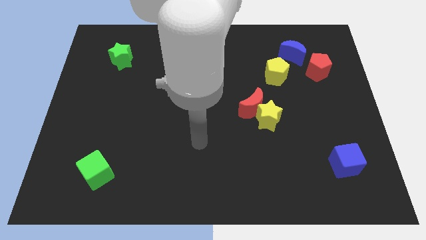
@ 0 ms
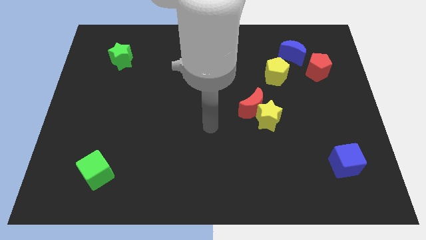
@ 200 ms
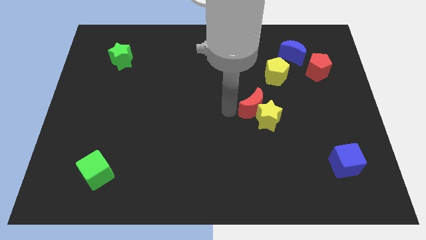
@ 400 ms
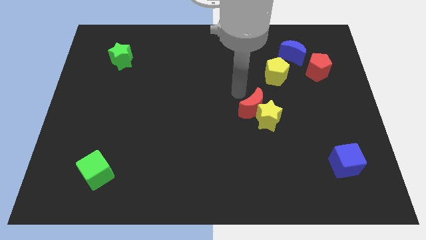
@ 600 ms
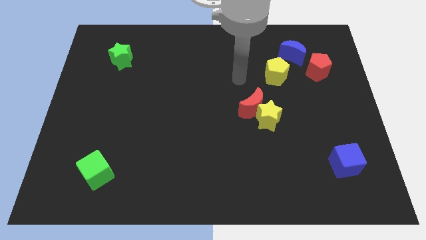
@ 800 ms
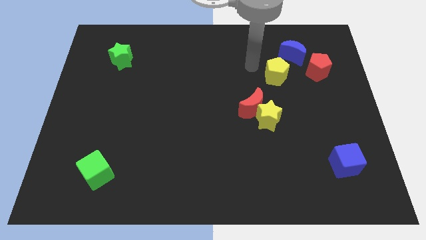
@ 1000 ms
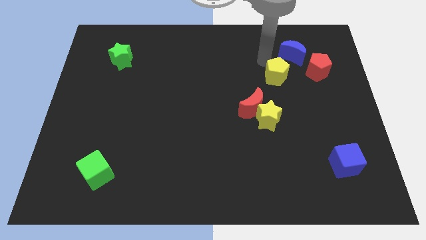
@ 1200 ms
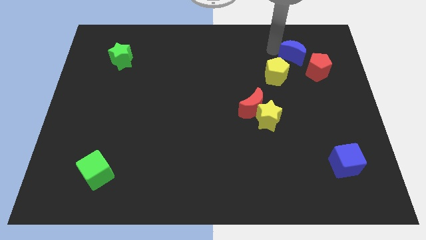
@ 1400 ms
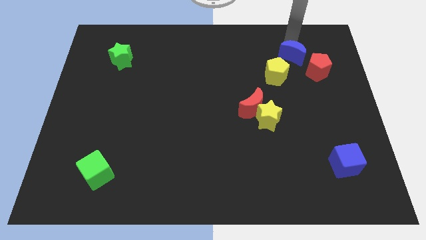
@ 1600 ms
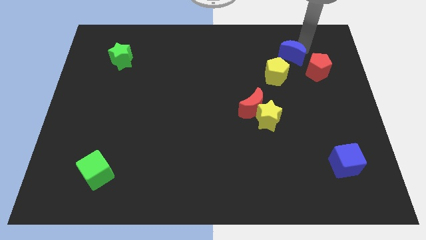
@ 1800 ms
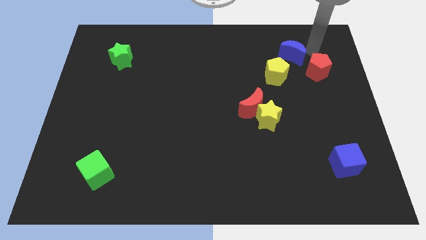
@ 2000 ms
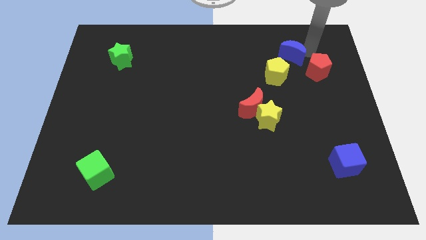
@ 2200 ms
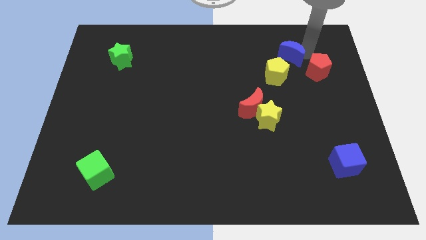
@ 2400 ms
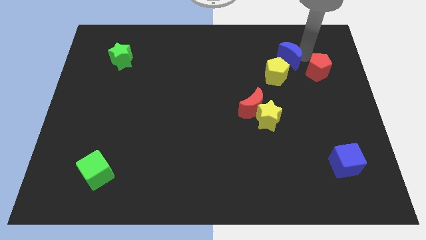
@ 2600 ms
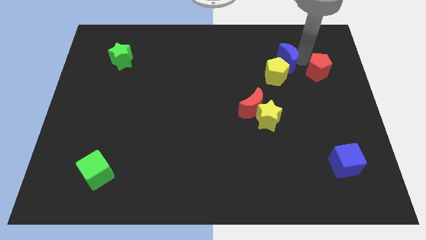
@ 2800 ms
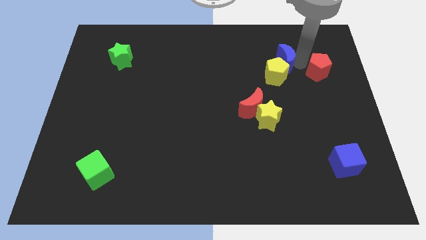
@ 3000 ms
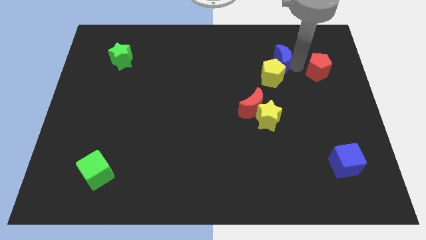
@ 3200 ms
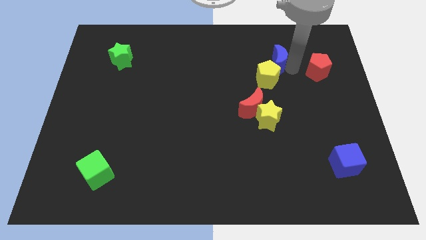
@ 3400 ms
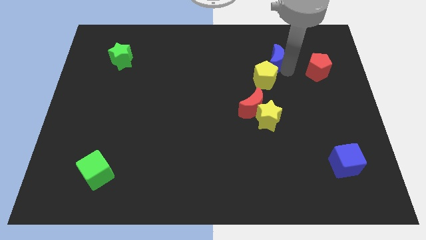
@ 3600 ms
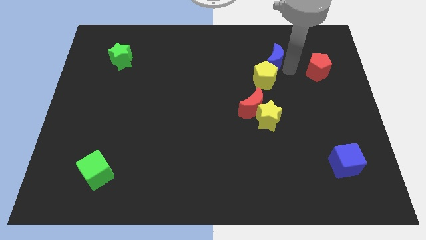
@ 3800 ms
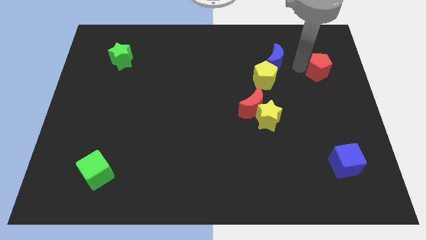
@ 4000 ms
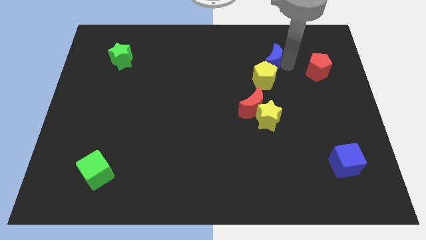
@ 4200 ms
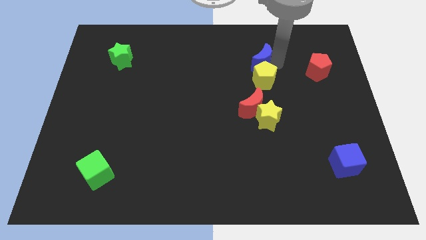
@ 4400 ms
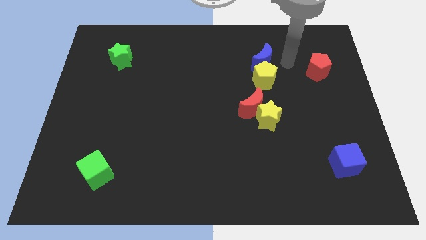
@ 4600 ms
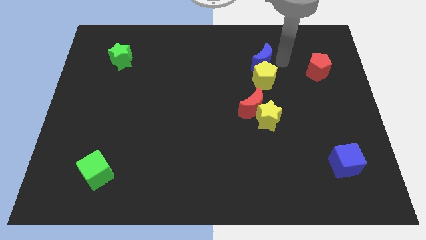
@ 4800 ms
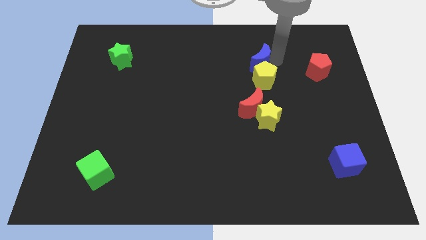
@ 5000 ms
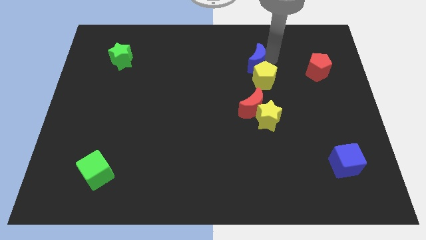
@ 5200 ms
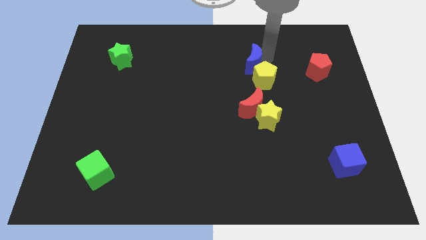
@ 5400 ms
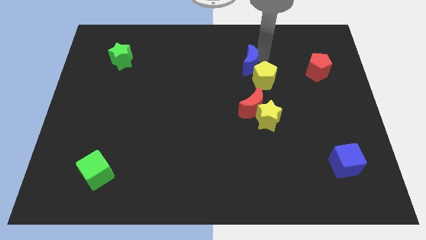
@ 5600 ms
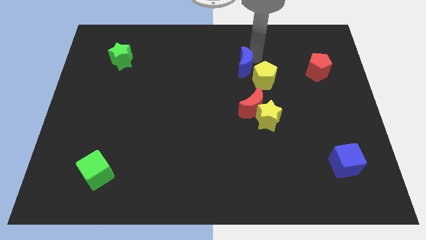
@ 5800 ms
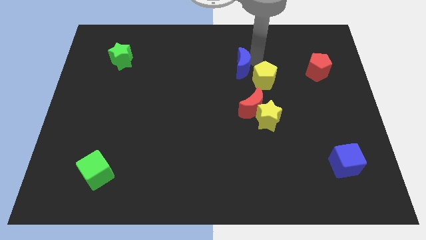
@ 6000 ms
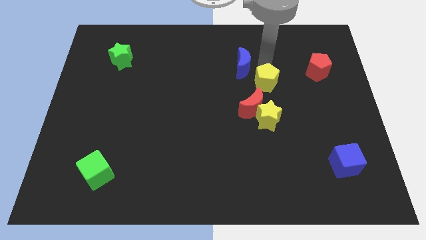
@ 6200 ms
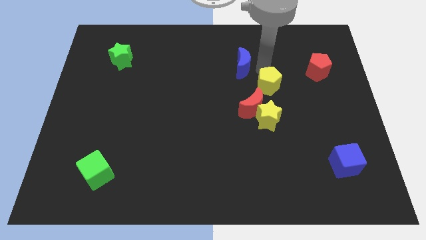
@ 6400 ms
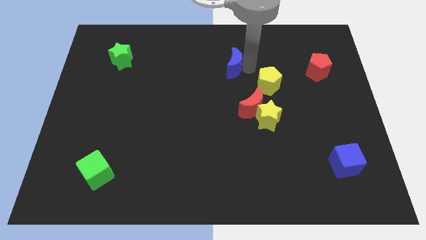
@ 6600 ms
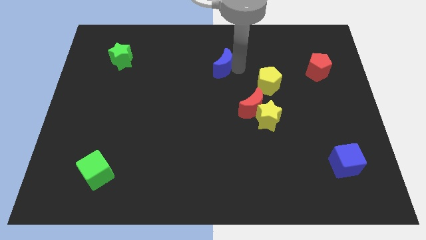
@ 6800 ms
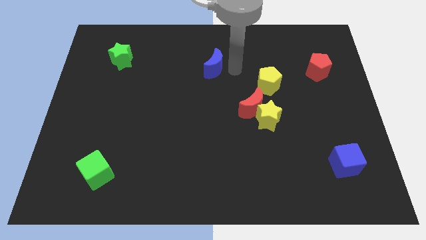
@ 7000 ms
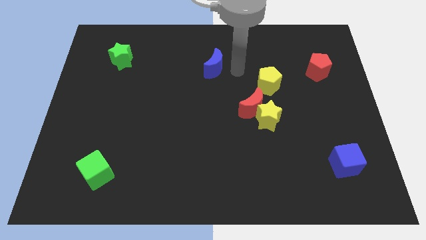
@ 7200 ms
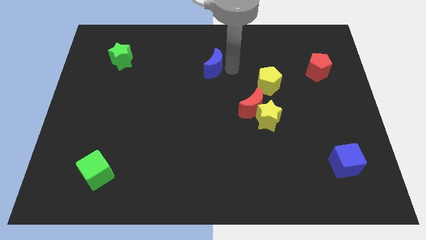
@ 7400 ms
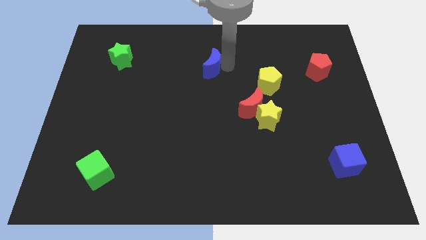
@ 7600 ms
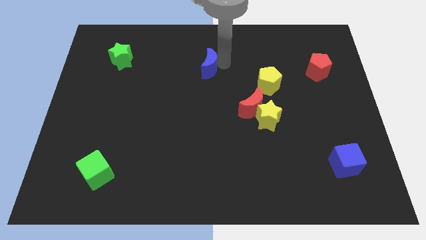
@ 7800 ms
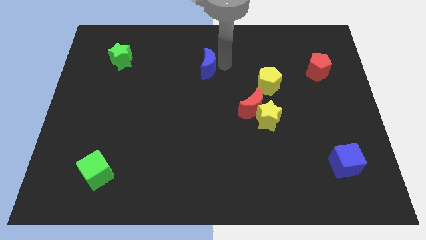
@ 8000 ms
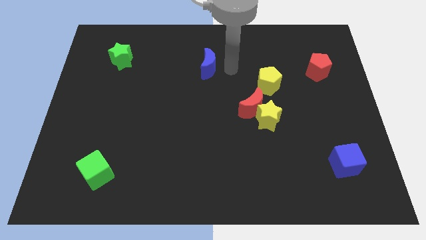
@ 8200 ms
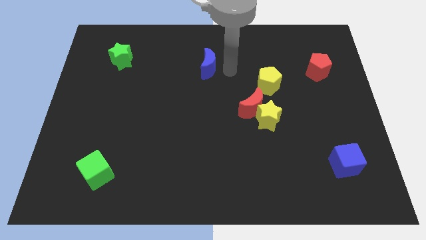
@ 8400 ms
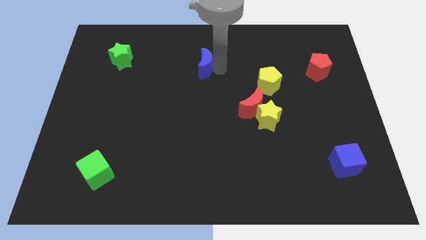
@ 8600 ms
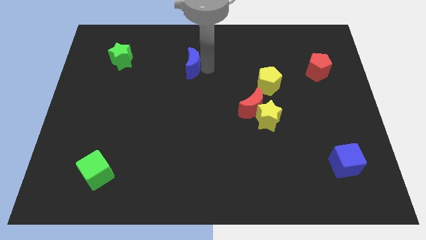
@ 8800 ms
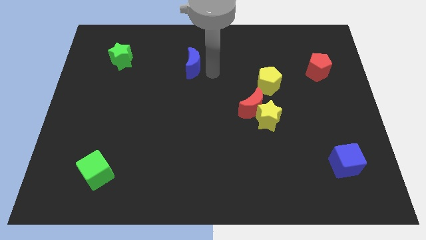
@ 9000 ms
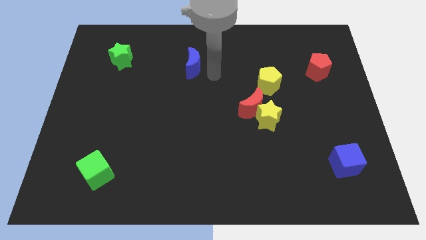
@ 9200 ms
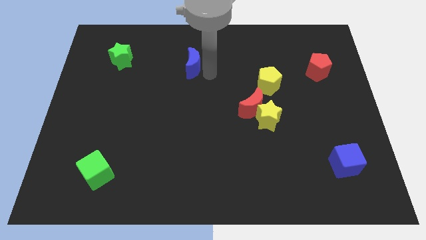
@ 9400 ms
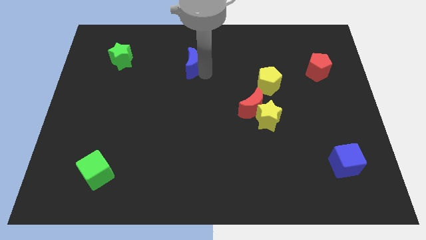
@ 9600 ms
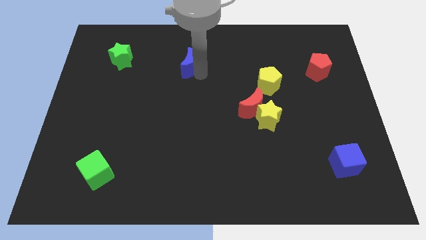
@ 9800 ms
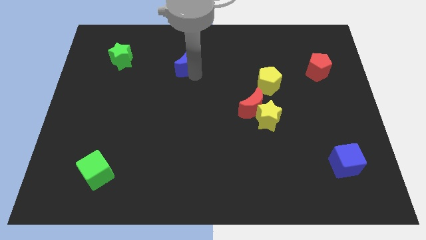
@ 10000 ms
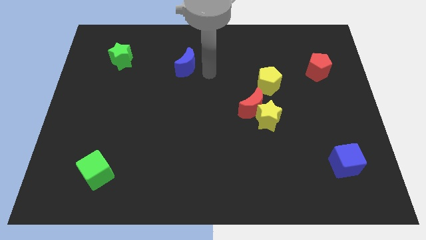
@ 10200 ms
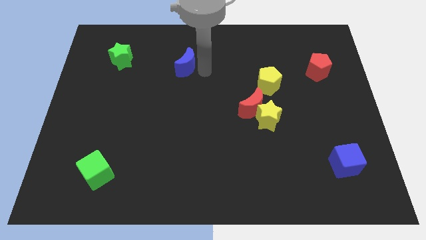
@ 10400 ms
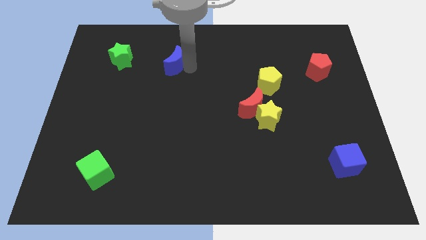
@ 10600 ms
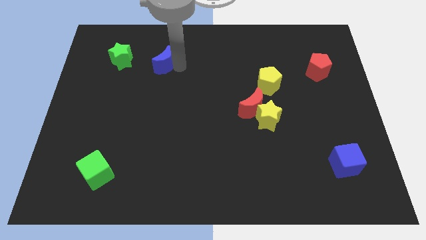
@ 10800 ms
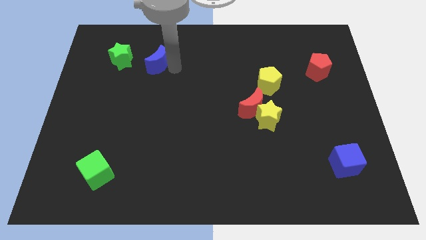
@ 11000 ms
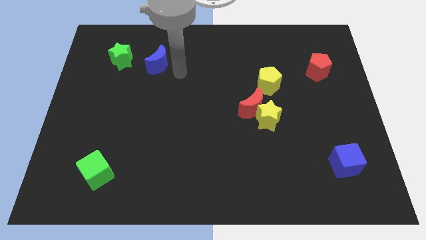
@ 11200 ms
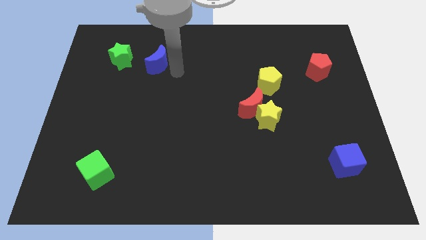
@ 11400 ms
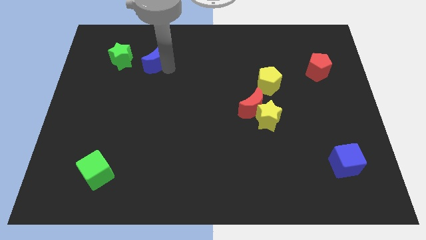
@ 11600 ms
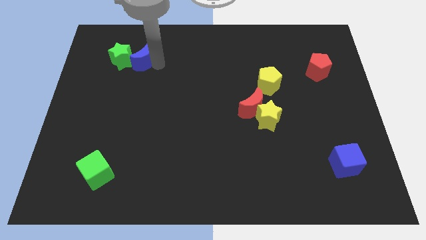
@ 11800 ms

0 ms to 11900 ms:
move the blue moon next to the green star
